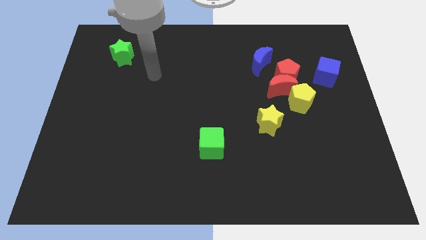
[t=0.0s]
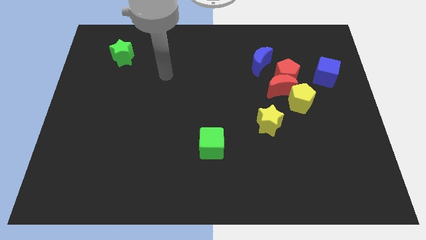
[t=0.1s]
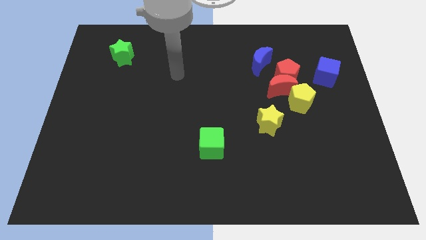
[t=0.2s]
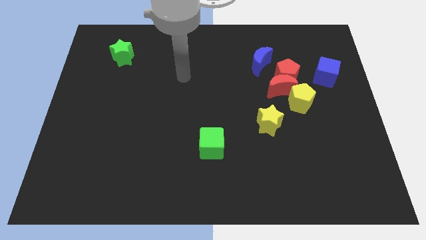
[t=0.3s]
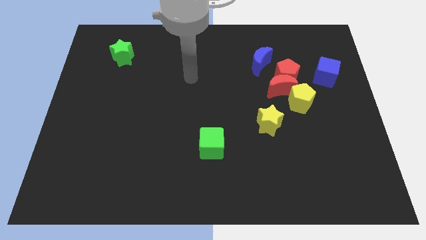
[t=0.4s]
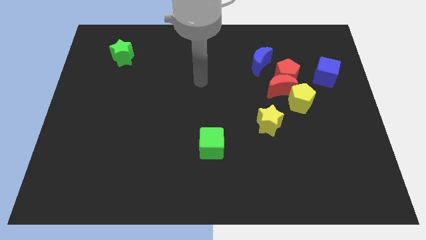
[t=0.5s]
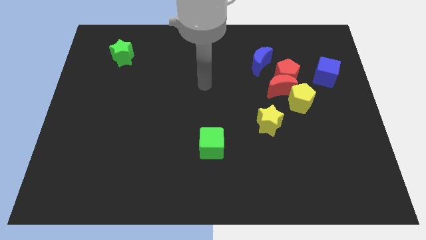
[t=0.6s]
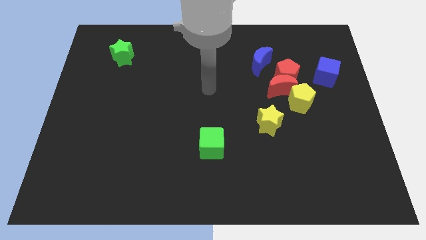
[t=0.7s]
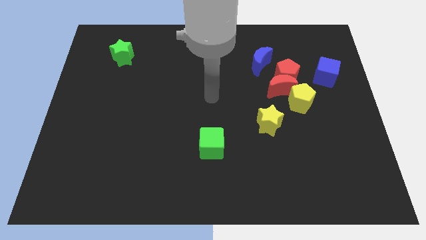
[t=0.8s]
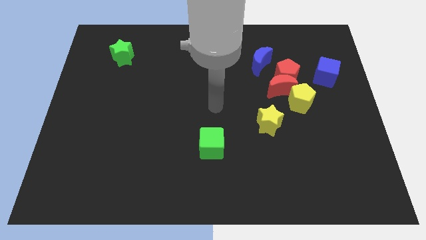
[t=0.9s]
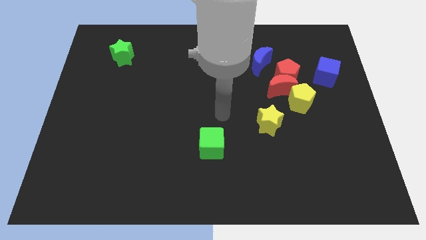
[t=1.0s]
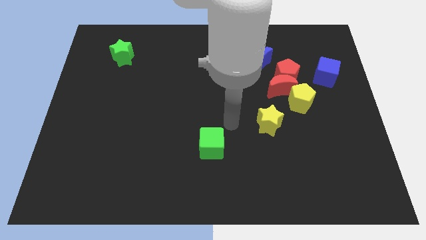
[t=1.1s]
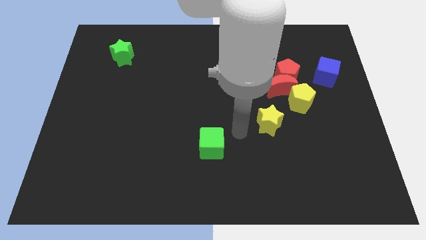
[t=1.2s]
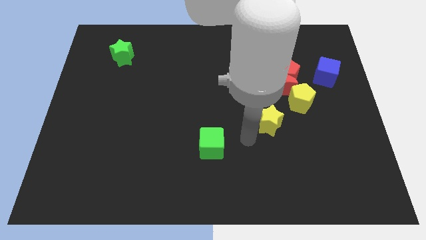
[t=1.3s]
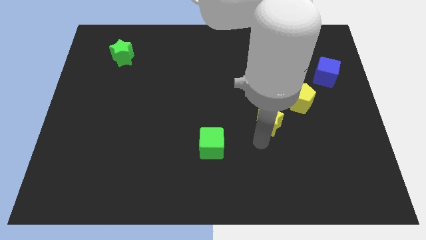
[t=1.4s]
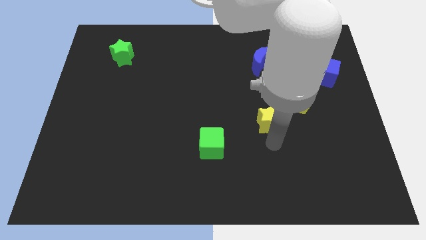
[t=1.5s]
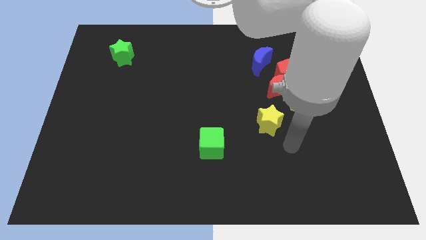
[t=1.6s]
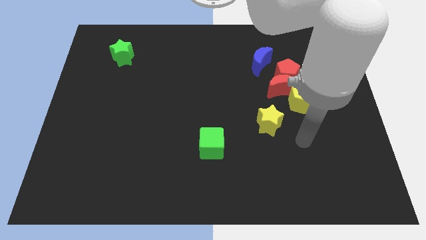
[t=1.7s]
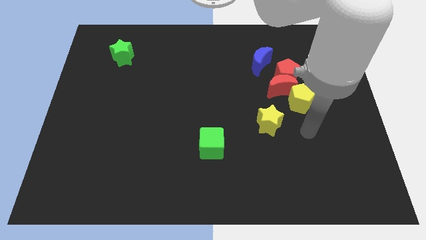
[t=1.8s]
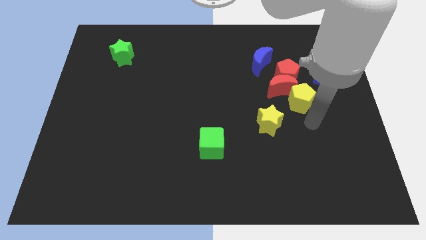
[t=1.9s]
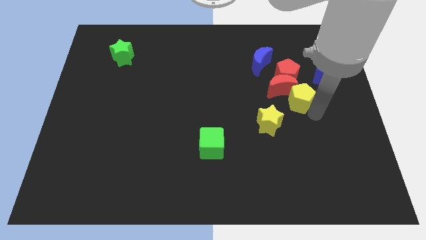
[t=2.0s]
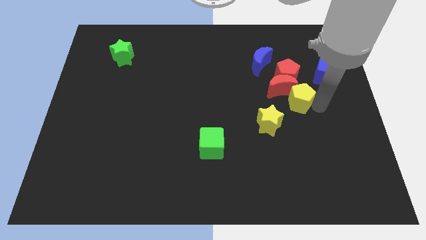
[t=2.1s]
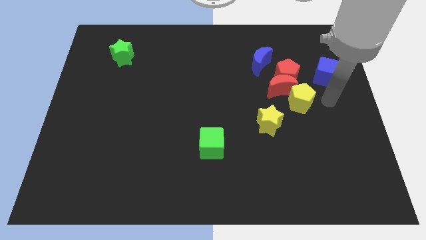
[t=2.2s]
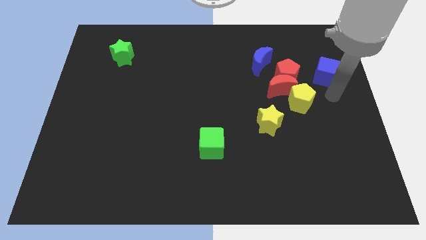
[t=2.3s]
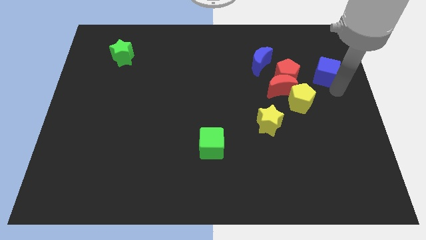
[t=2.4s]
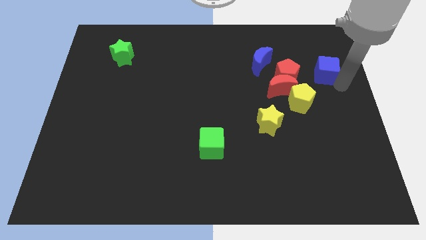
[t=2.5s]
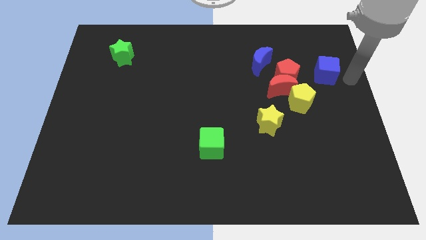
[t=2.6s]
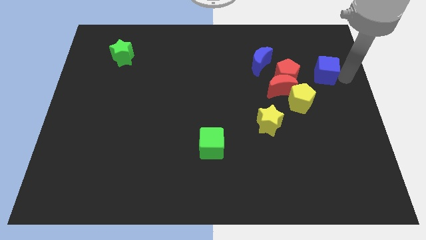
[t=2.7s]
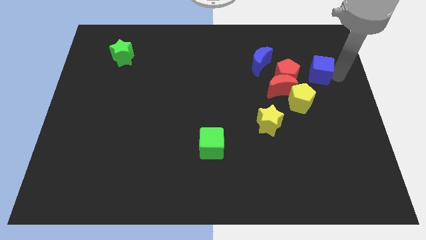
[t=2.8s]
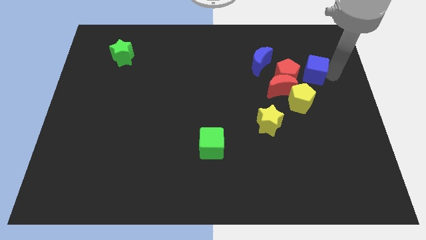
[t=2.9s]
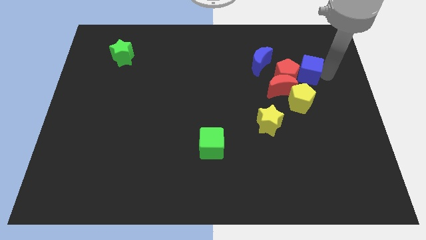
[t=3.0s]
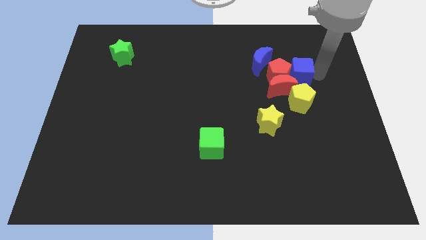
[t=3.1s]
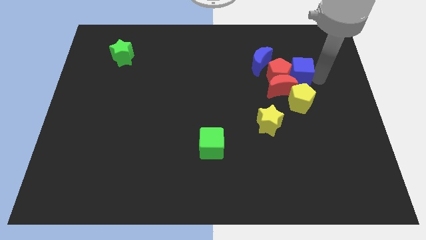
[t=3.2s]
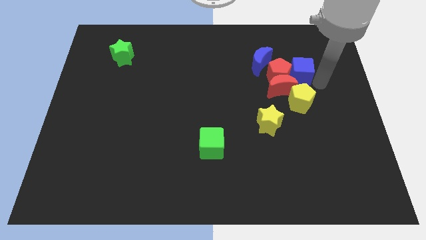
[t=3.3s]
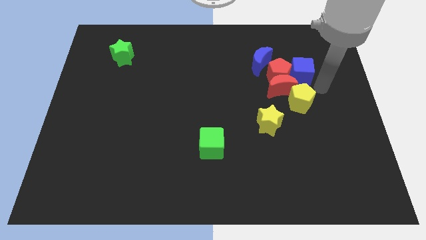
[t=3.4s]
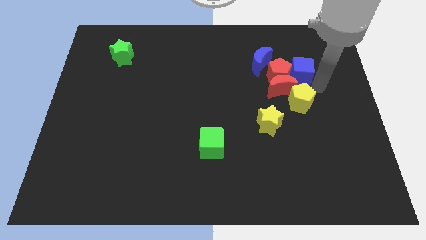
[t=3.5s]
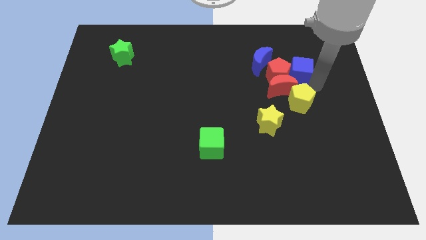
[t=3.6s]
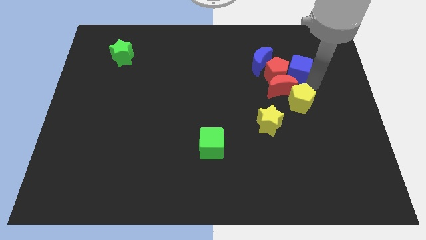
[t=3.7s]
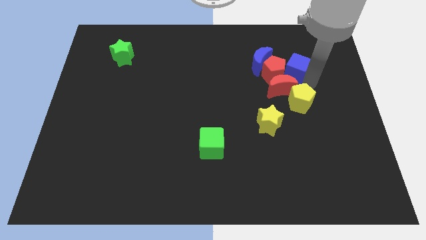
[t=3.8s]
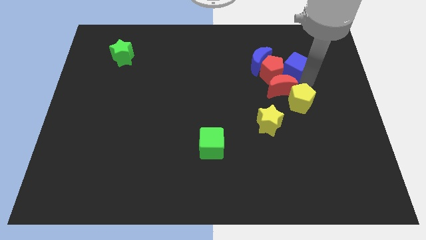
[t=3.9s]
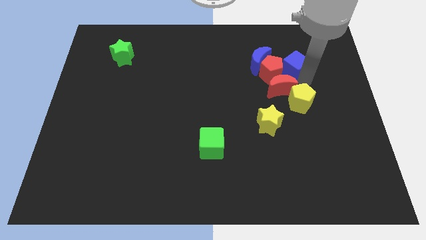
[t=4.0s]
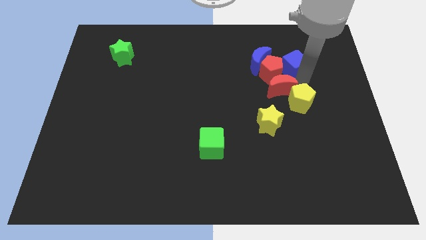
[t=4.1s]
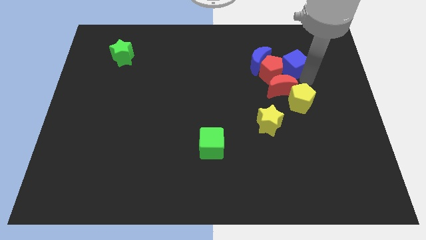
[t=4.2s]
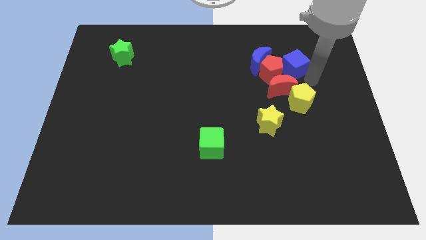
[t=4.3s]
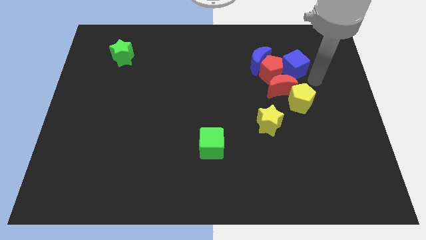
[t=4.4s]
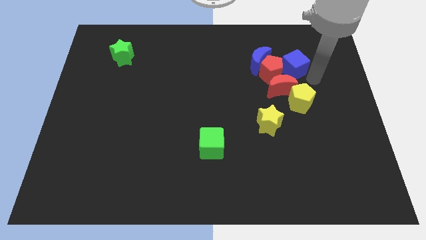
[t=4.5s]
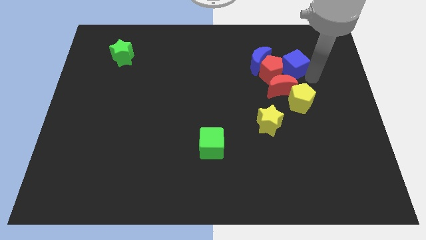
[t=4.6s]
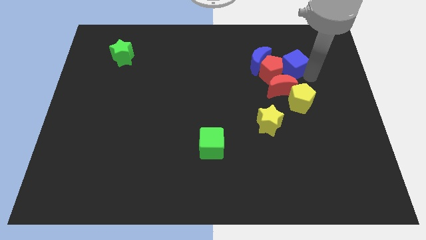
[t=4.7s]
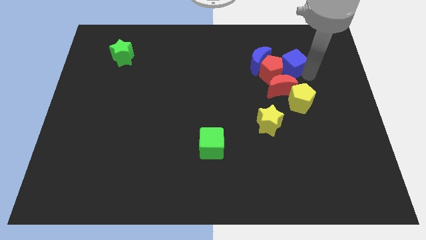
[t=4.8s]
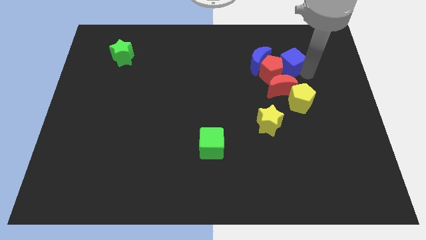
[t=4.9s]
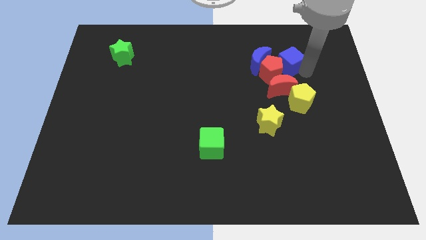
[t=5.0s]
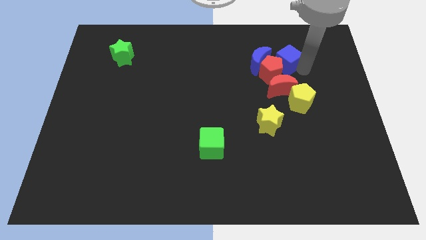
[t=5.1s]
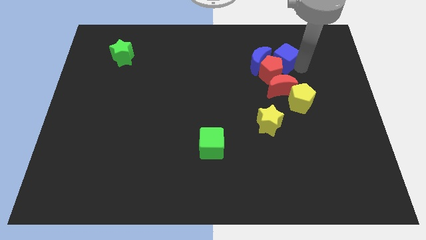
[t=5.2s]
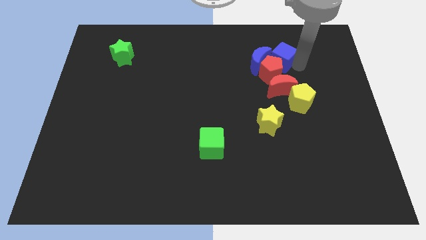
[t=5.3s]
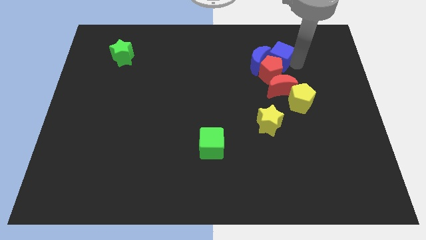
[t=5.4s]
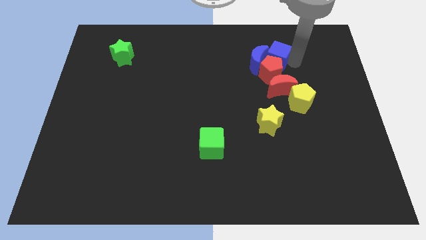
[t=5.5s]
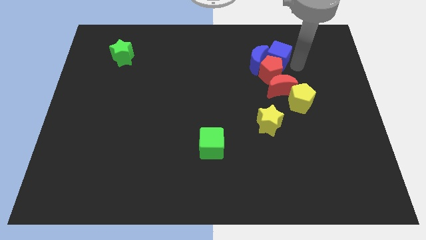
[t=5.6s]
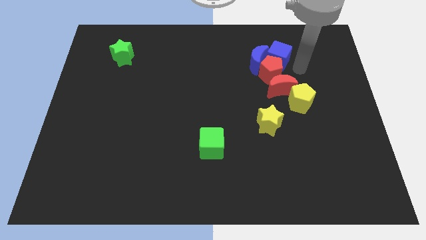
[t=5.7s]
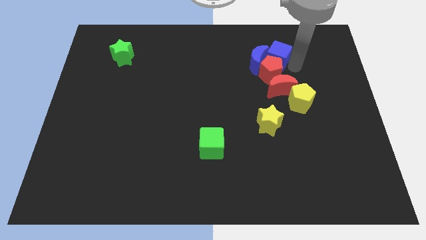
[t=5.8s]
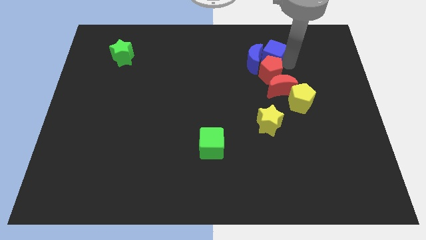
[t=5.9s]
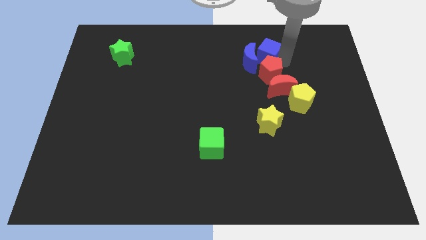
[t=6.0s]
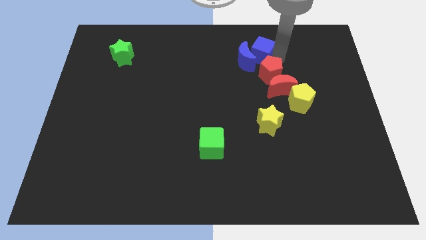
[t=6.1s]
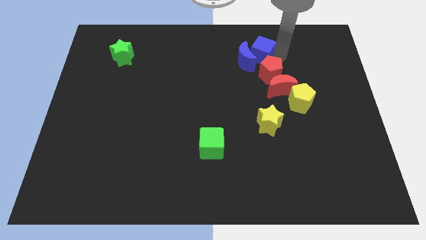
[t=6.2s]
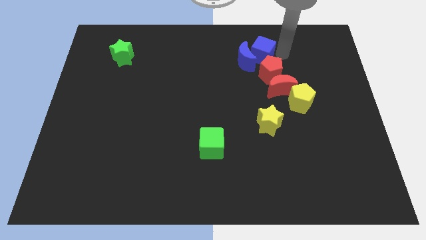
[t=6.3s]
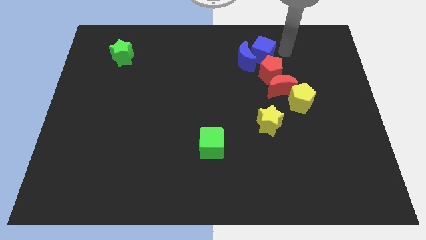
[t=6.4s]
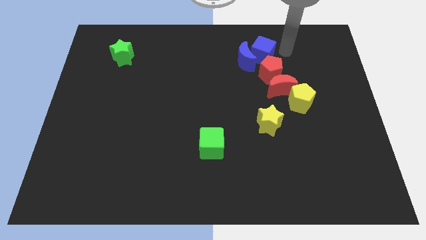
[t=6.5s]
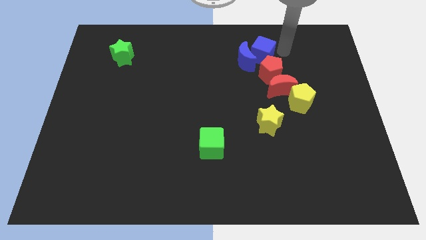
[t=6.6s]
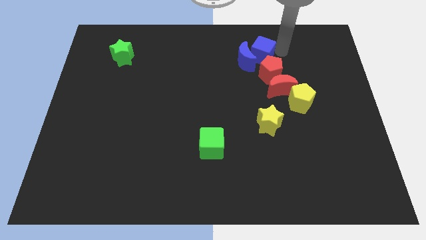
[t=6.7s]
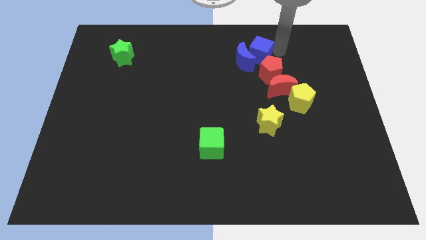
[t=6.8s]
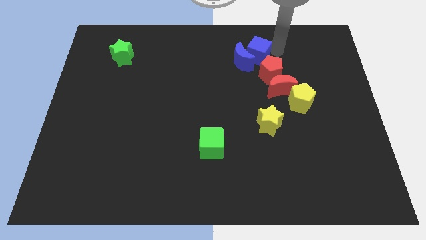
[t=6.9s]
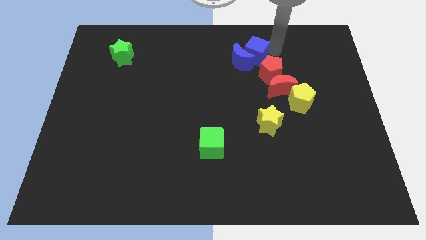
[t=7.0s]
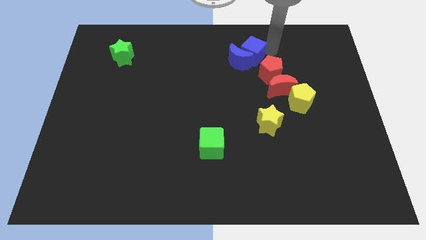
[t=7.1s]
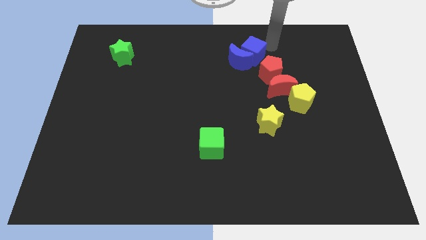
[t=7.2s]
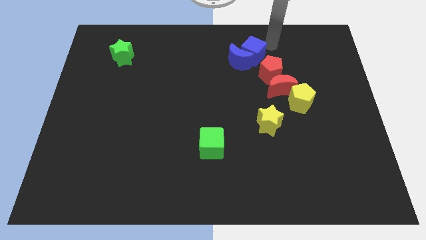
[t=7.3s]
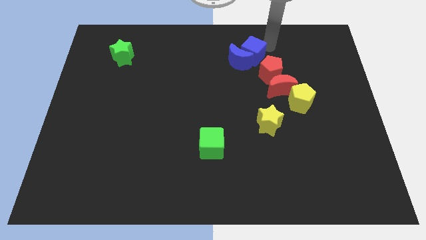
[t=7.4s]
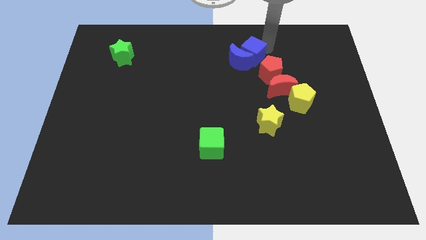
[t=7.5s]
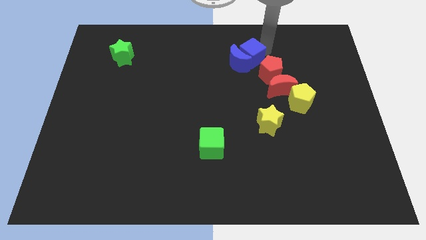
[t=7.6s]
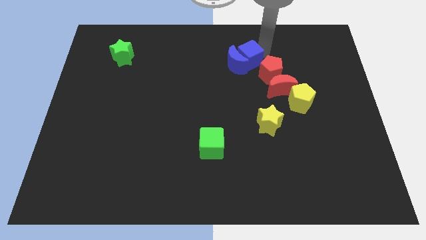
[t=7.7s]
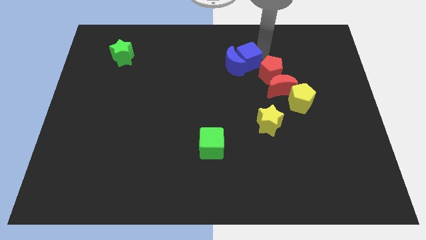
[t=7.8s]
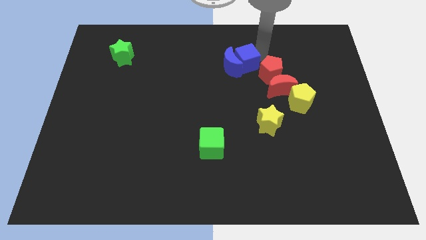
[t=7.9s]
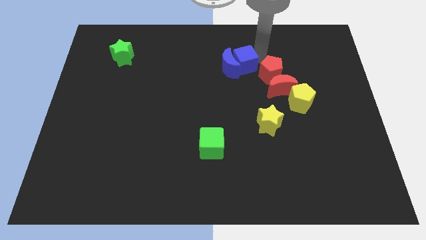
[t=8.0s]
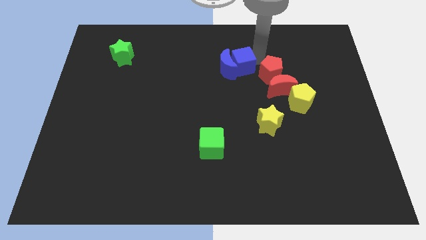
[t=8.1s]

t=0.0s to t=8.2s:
move the blue cube to the left
